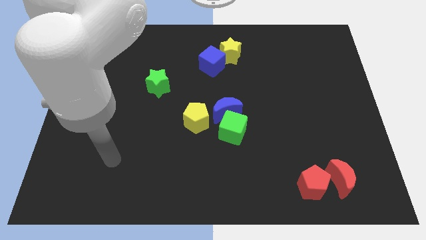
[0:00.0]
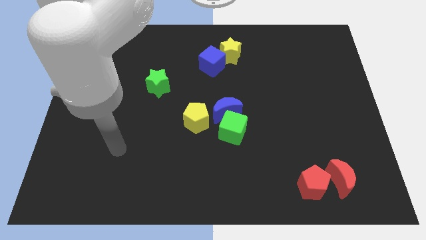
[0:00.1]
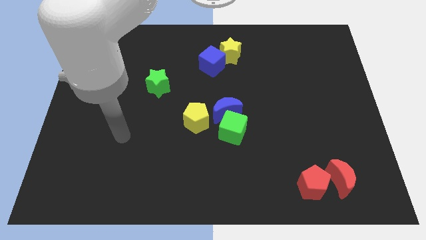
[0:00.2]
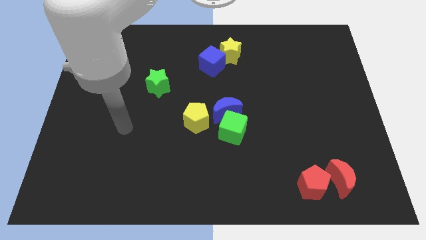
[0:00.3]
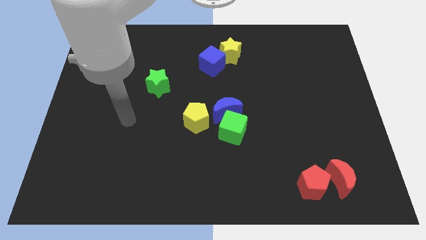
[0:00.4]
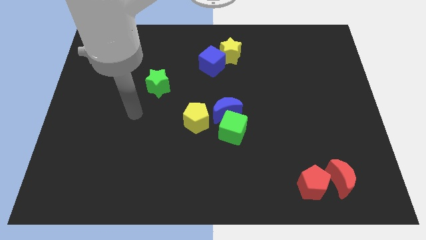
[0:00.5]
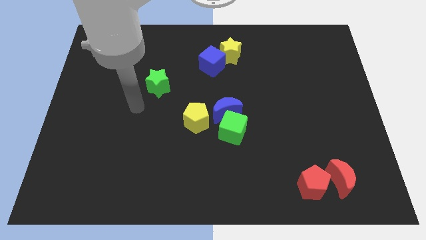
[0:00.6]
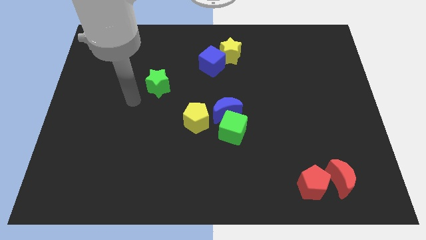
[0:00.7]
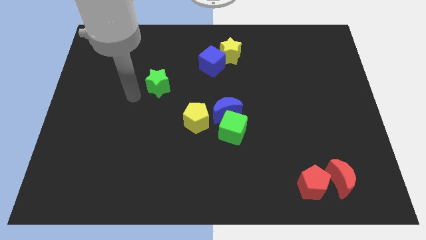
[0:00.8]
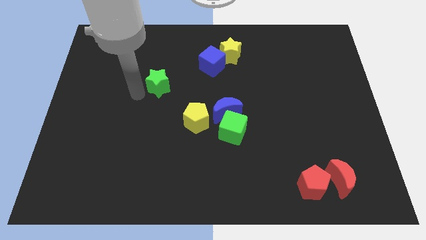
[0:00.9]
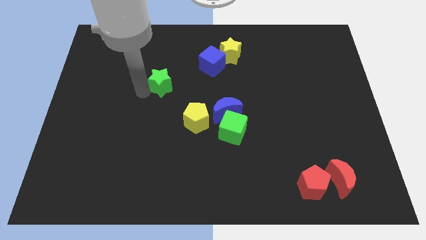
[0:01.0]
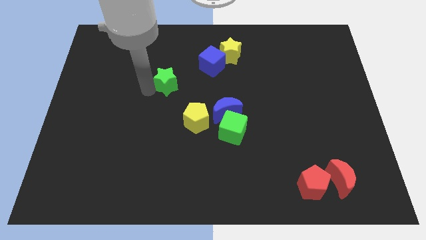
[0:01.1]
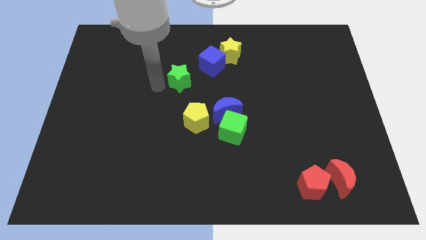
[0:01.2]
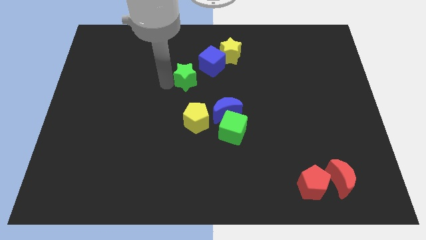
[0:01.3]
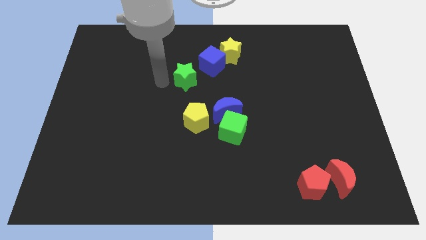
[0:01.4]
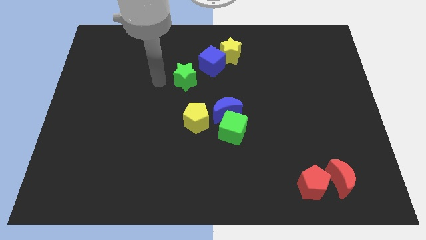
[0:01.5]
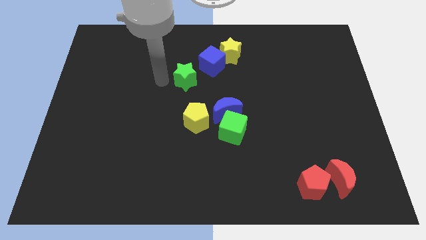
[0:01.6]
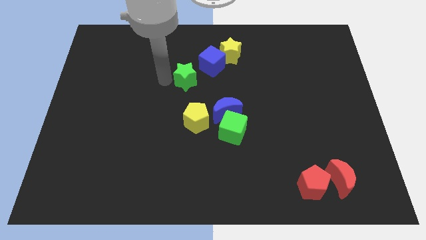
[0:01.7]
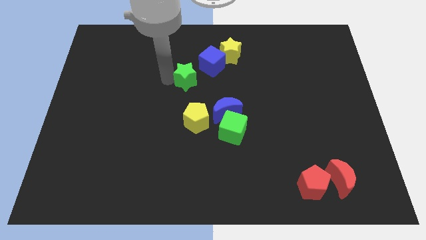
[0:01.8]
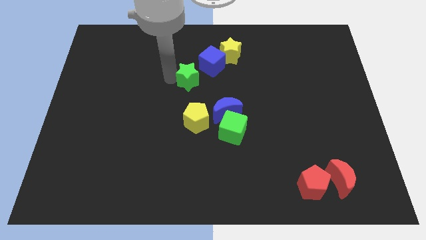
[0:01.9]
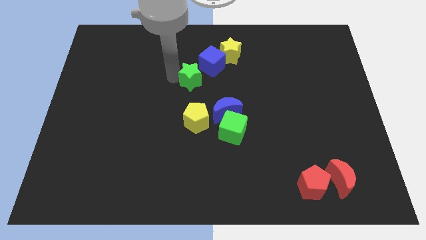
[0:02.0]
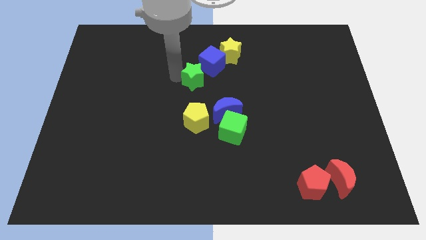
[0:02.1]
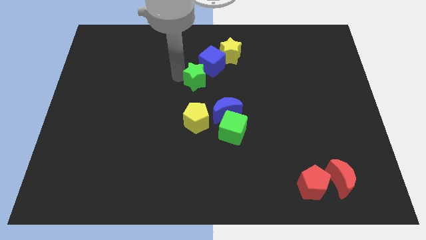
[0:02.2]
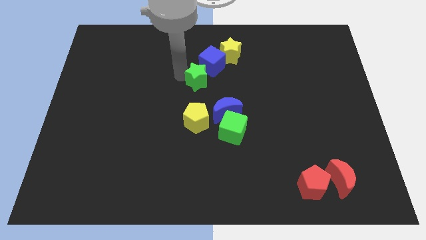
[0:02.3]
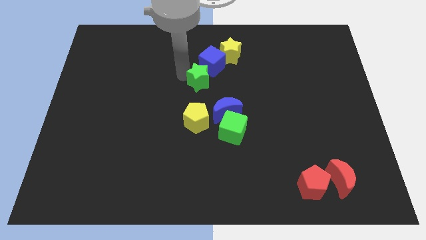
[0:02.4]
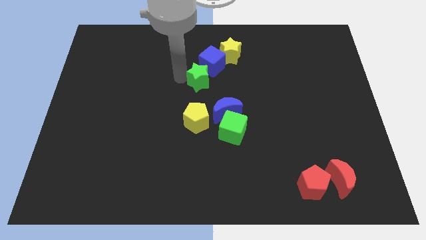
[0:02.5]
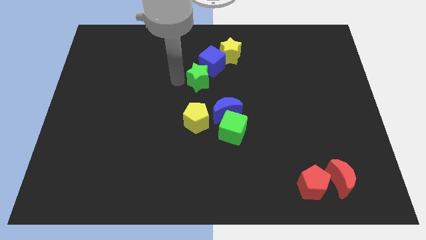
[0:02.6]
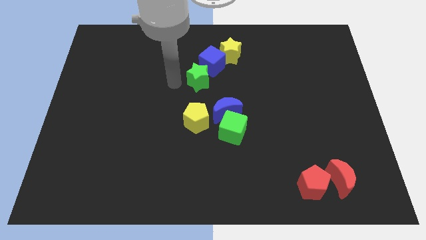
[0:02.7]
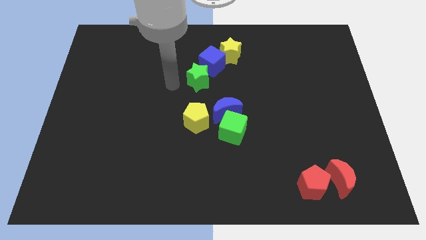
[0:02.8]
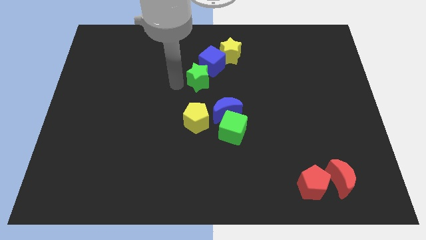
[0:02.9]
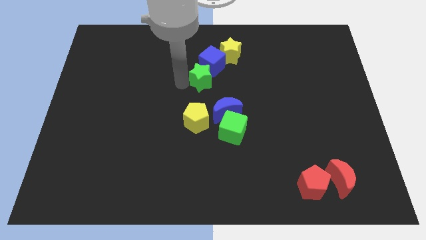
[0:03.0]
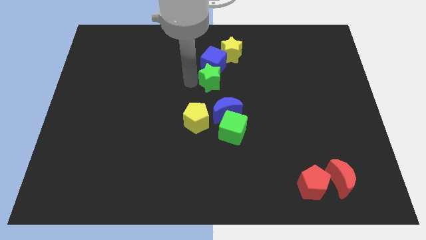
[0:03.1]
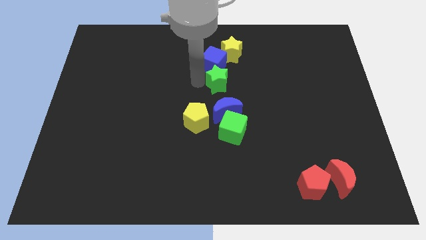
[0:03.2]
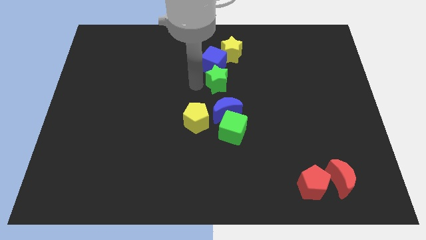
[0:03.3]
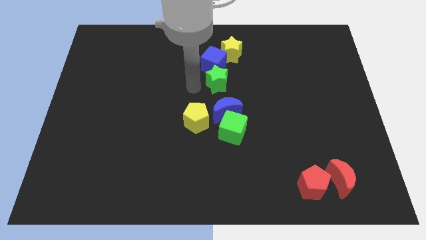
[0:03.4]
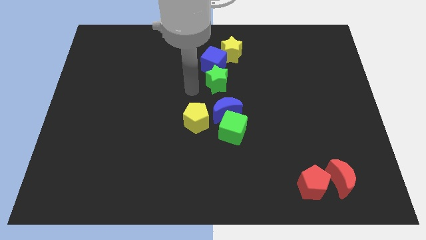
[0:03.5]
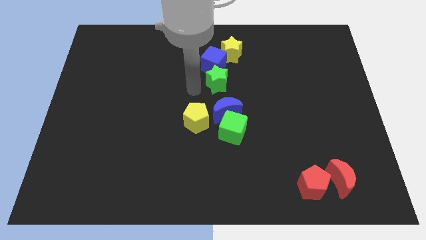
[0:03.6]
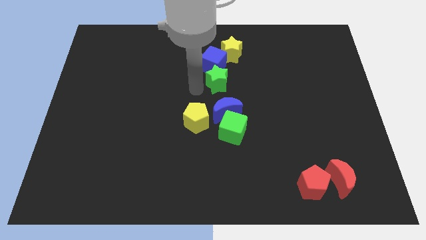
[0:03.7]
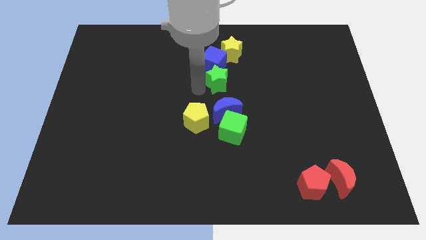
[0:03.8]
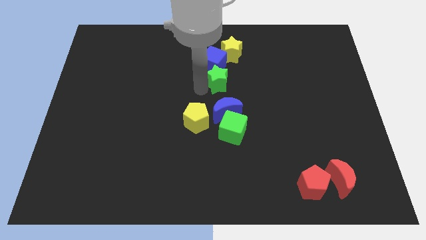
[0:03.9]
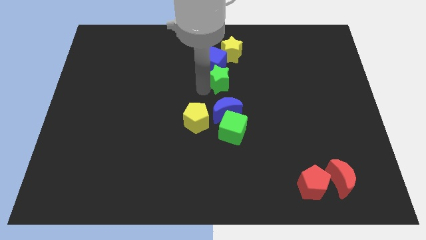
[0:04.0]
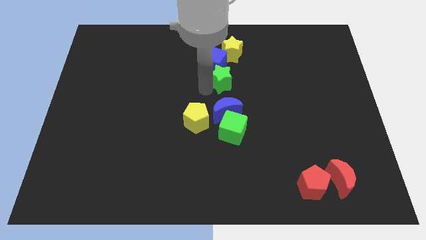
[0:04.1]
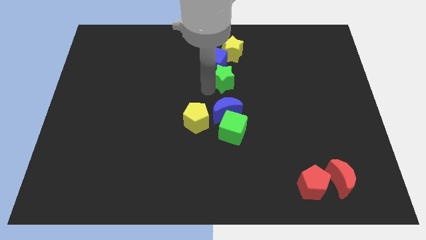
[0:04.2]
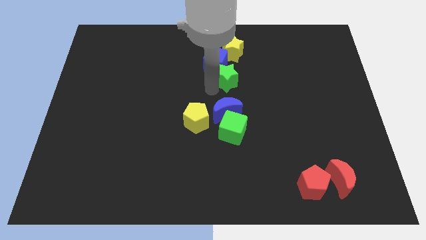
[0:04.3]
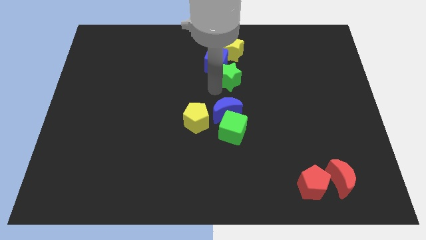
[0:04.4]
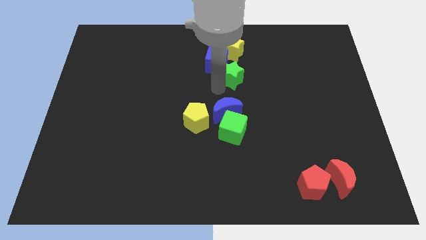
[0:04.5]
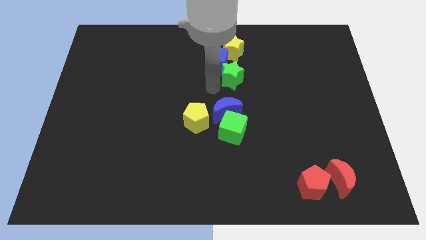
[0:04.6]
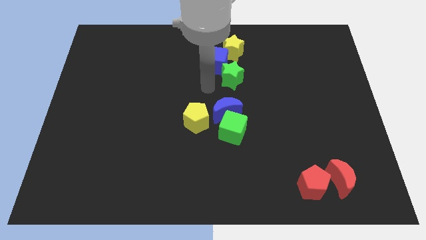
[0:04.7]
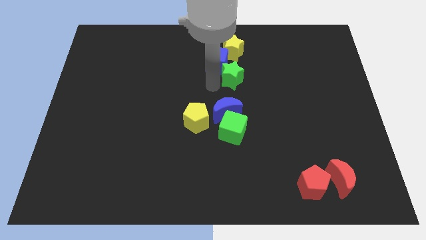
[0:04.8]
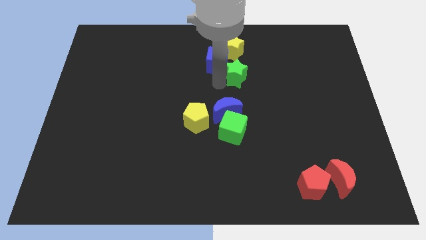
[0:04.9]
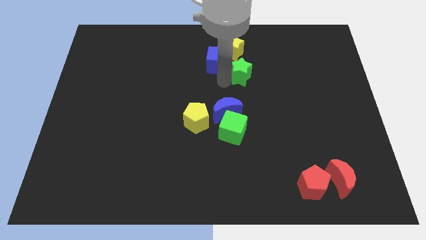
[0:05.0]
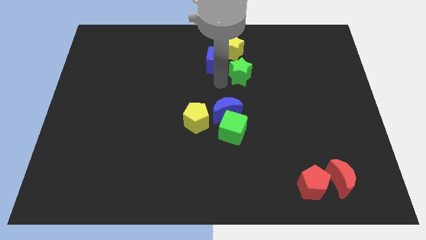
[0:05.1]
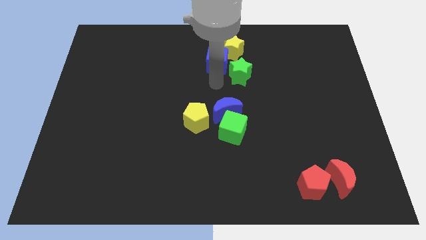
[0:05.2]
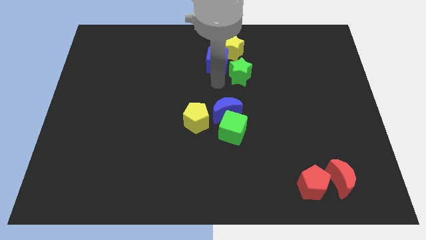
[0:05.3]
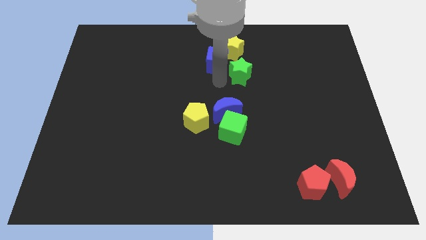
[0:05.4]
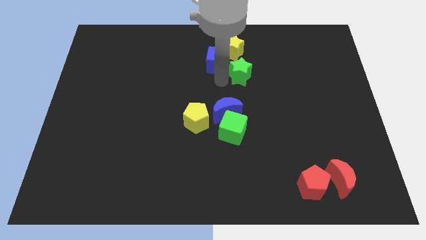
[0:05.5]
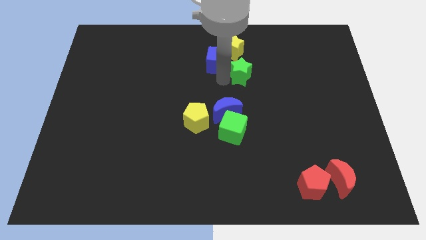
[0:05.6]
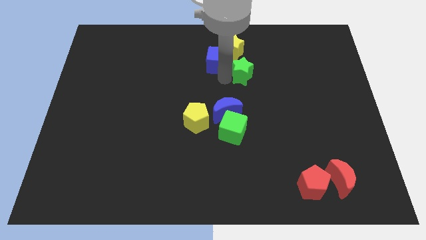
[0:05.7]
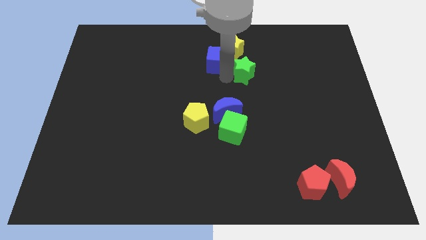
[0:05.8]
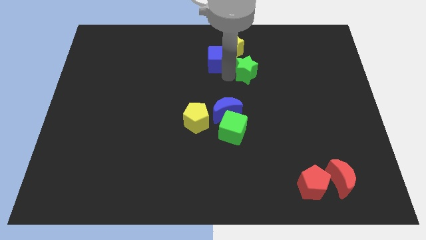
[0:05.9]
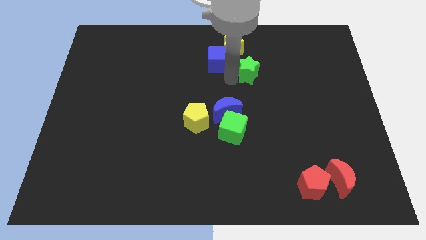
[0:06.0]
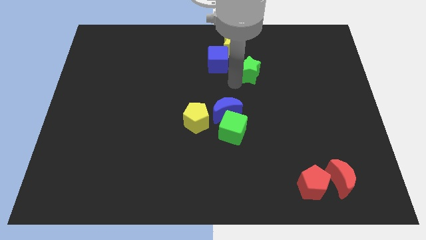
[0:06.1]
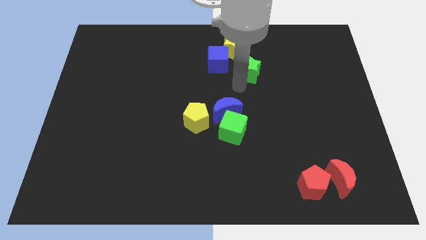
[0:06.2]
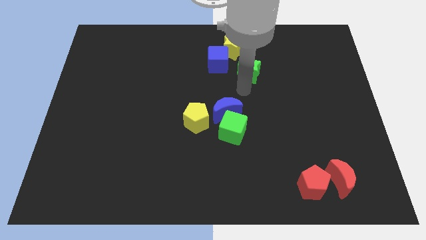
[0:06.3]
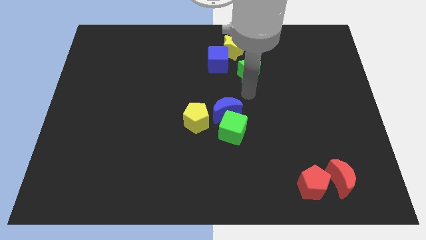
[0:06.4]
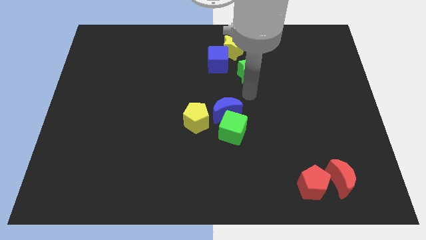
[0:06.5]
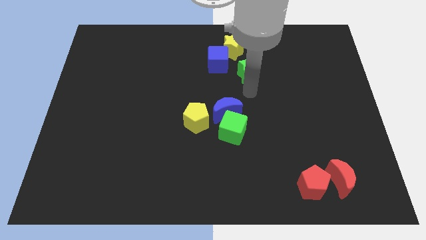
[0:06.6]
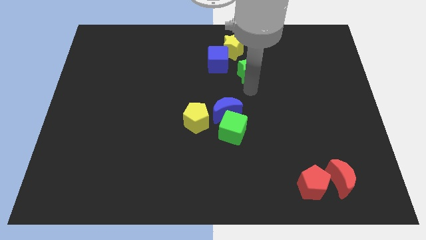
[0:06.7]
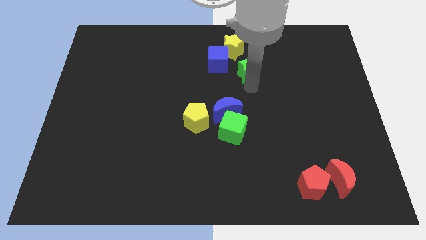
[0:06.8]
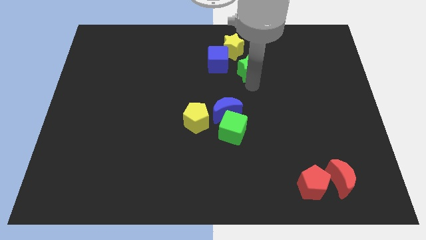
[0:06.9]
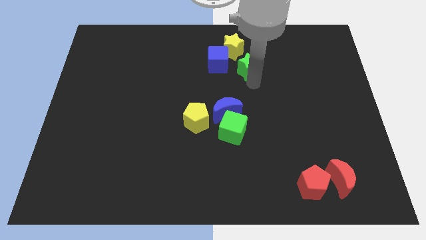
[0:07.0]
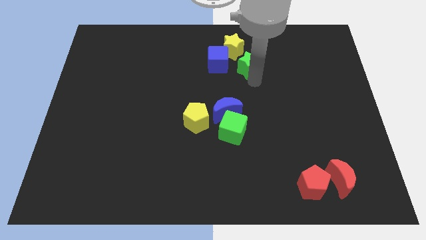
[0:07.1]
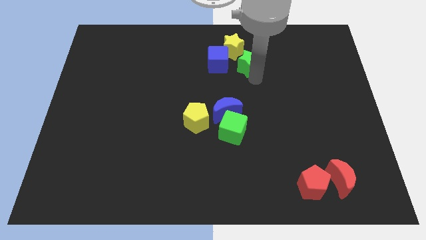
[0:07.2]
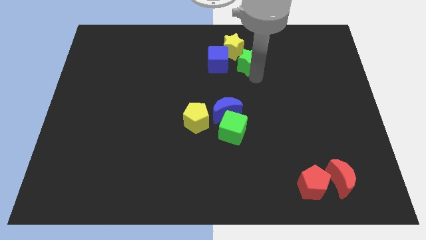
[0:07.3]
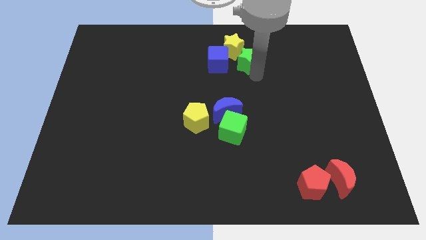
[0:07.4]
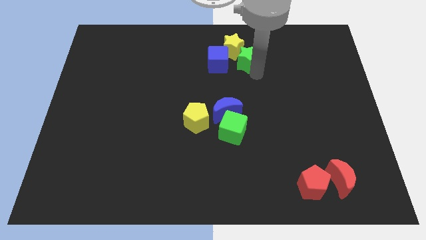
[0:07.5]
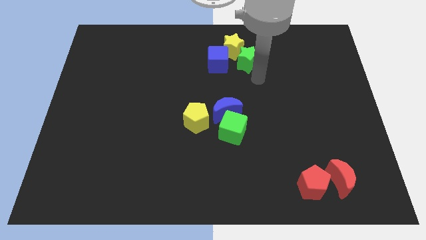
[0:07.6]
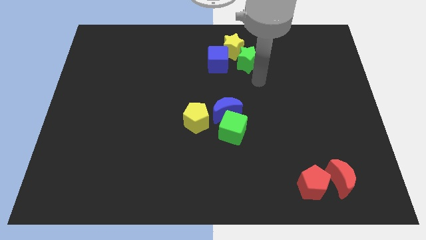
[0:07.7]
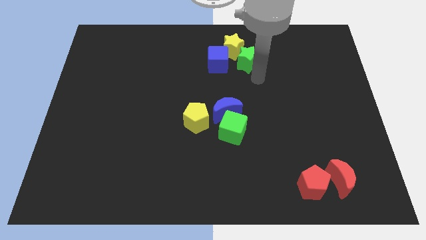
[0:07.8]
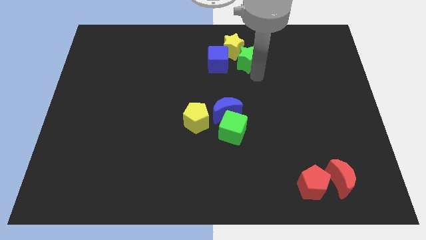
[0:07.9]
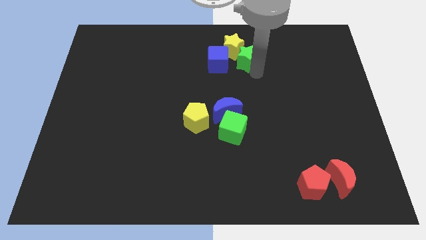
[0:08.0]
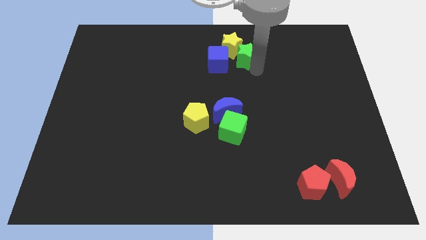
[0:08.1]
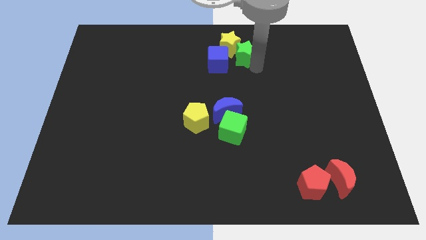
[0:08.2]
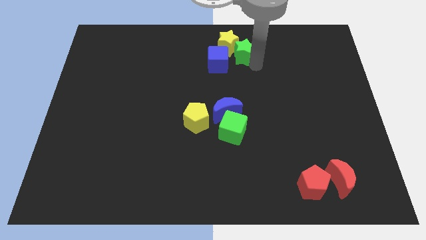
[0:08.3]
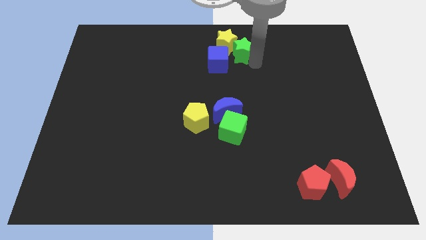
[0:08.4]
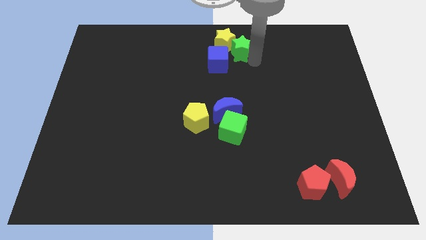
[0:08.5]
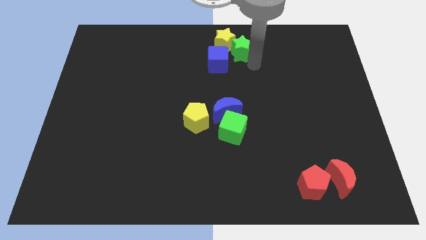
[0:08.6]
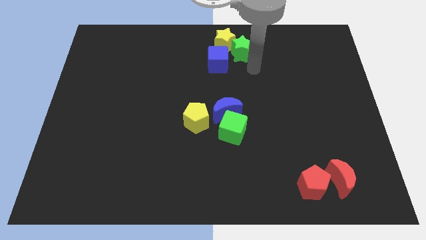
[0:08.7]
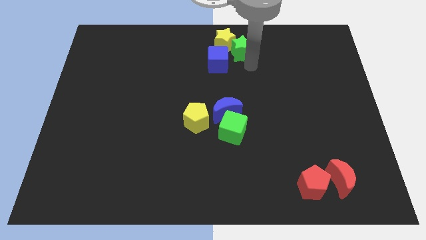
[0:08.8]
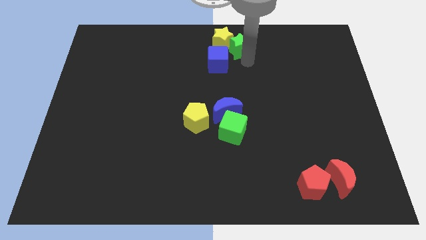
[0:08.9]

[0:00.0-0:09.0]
move the green star to the towards your base
